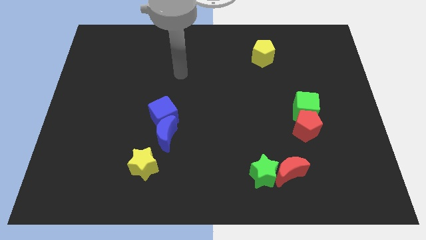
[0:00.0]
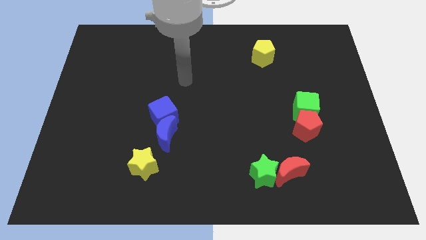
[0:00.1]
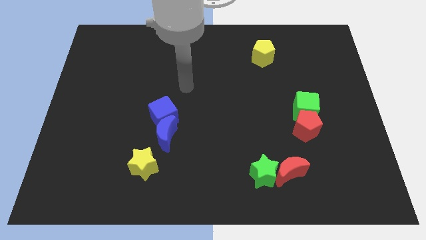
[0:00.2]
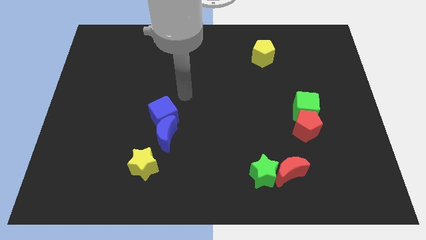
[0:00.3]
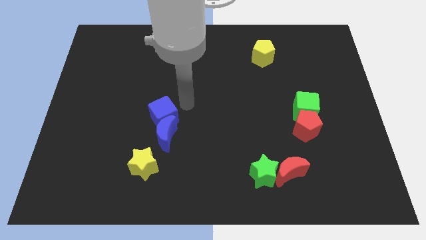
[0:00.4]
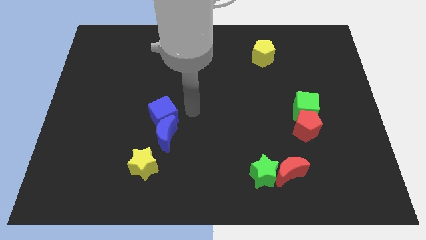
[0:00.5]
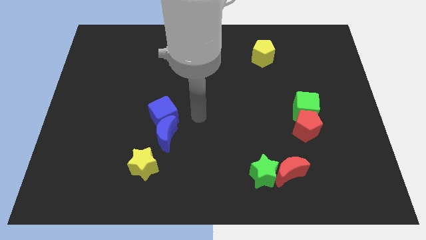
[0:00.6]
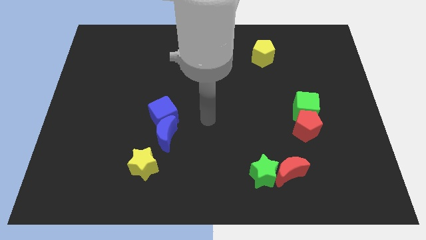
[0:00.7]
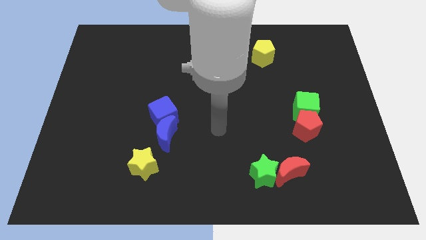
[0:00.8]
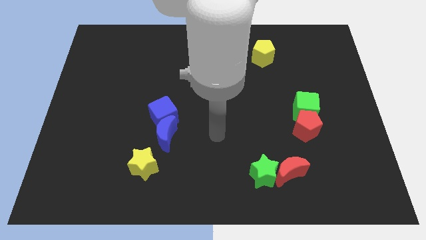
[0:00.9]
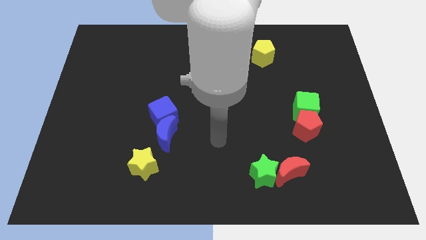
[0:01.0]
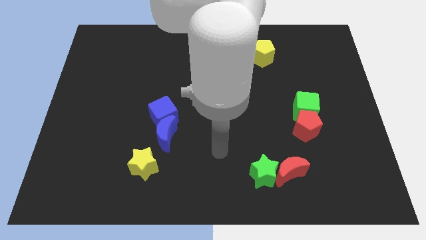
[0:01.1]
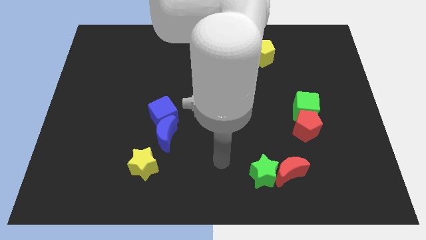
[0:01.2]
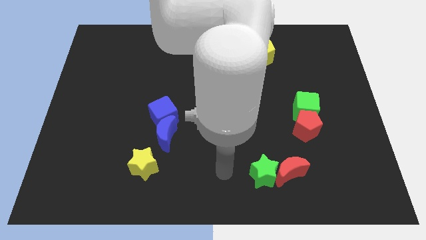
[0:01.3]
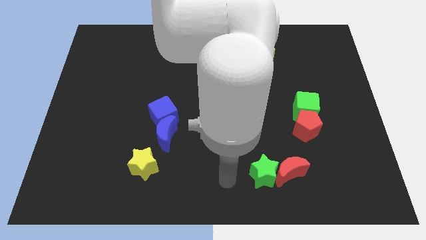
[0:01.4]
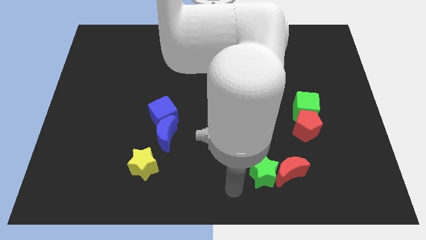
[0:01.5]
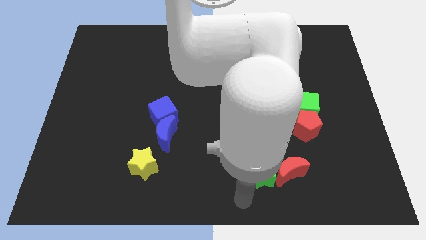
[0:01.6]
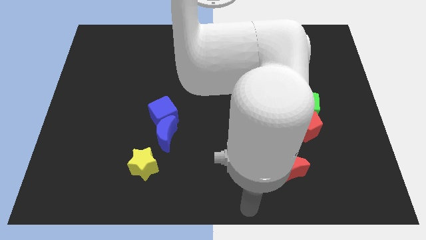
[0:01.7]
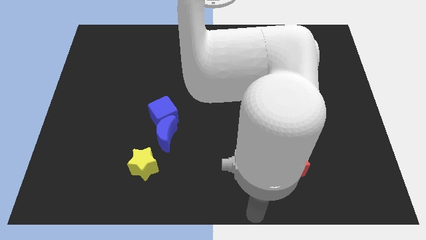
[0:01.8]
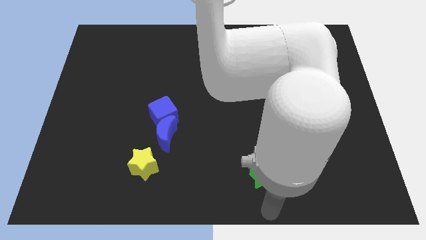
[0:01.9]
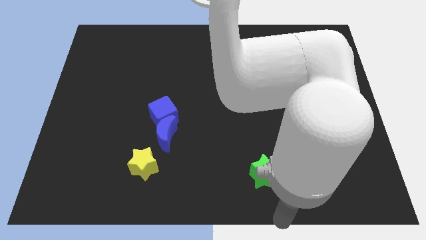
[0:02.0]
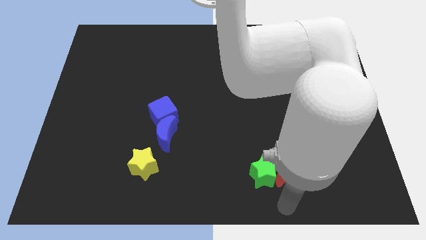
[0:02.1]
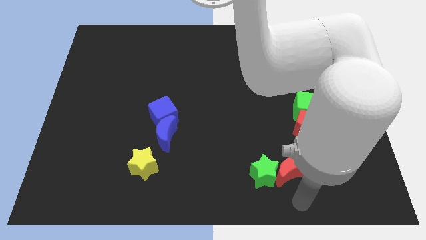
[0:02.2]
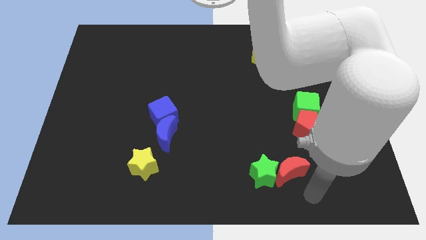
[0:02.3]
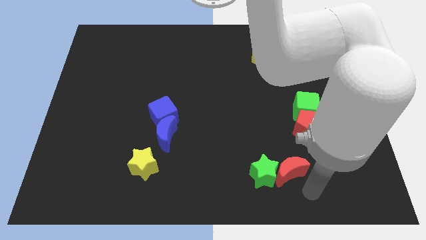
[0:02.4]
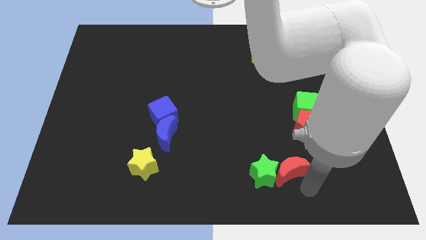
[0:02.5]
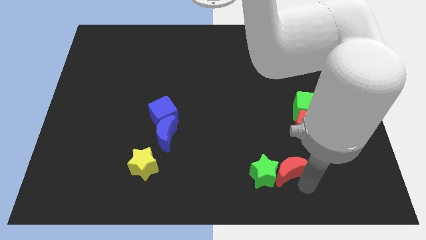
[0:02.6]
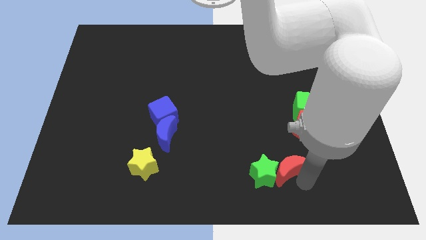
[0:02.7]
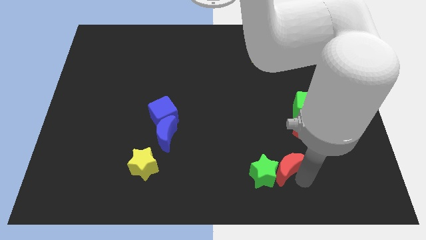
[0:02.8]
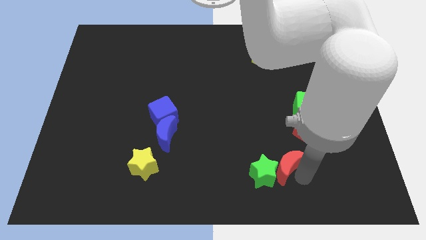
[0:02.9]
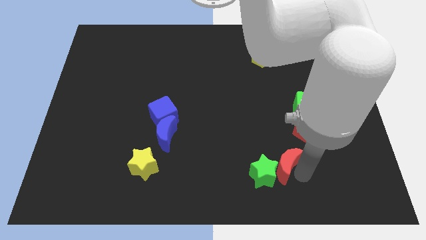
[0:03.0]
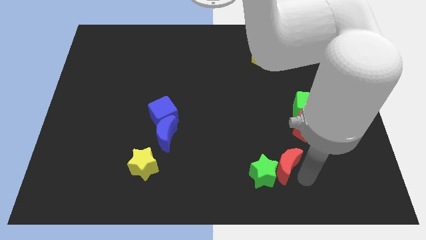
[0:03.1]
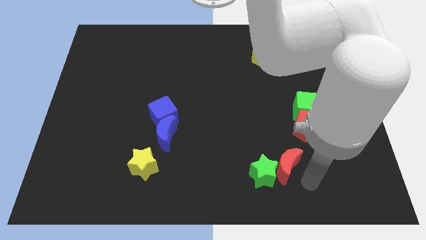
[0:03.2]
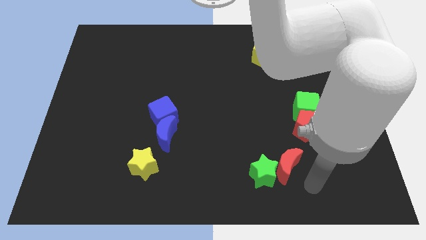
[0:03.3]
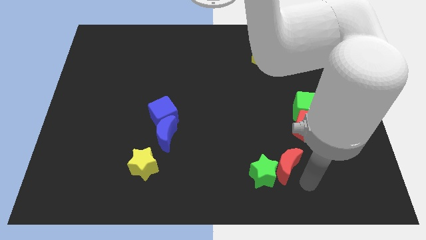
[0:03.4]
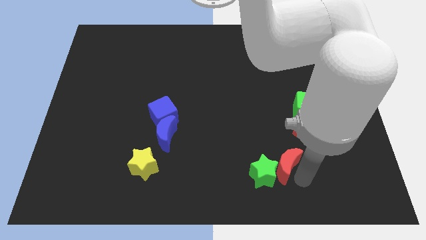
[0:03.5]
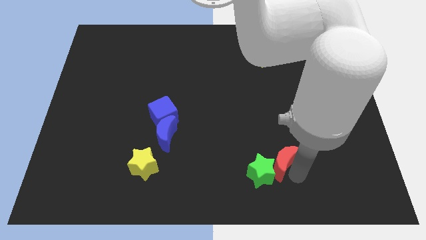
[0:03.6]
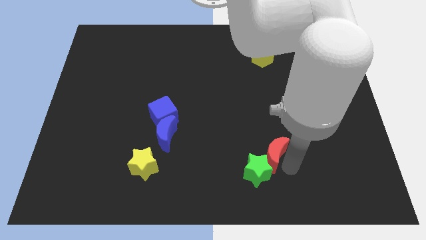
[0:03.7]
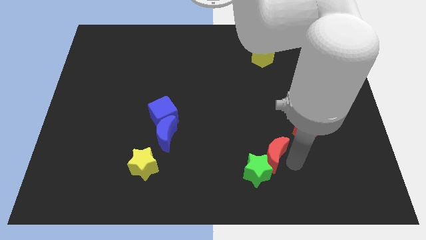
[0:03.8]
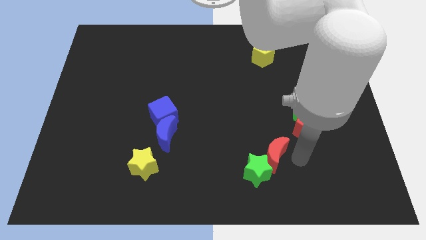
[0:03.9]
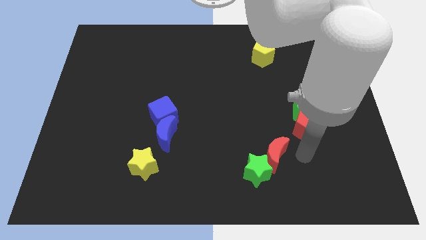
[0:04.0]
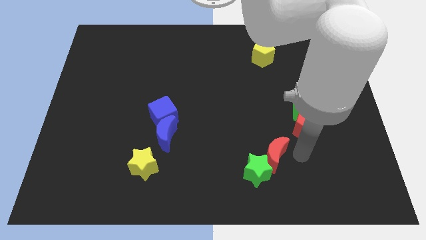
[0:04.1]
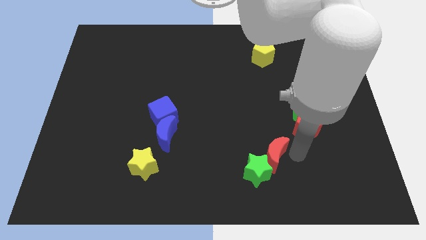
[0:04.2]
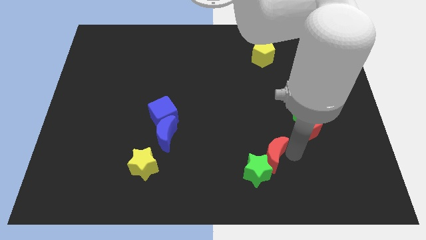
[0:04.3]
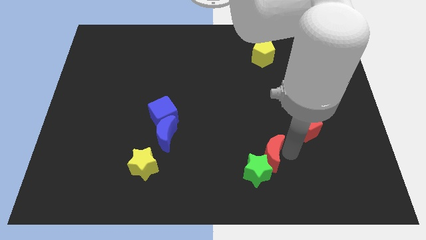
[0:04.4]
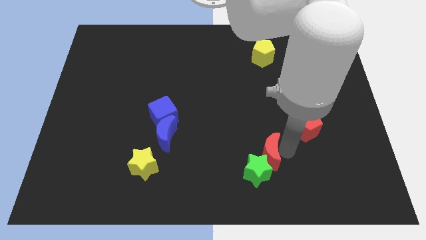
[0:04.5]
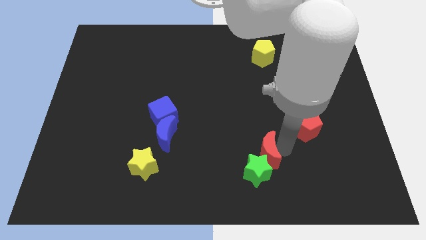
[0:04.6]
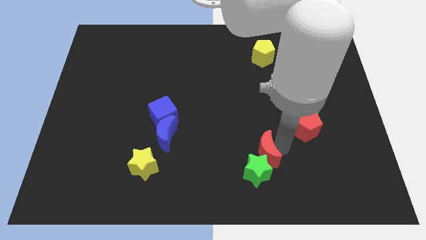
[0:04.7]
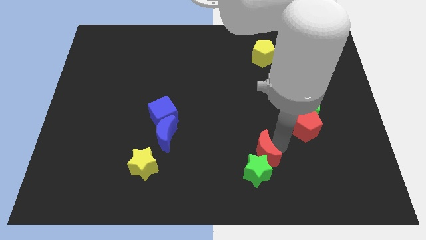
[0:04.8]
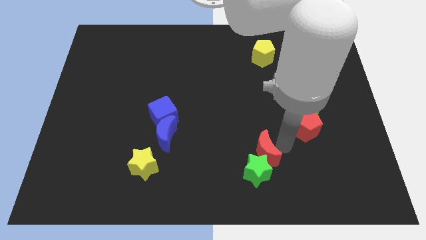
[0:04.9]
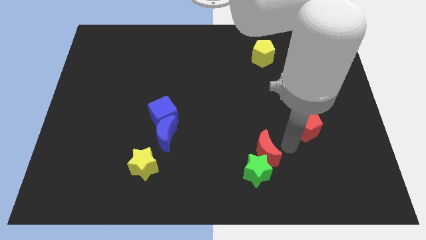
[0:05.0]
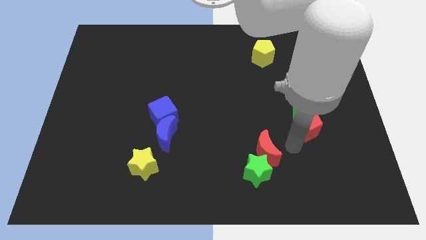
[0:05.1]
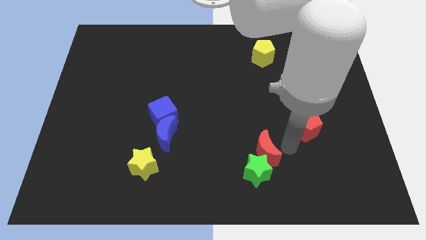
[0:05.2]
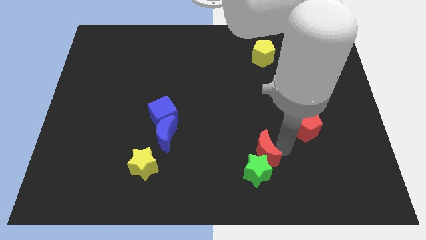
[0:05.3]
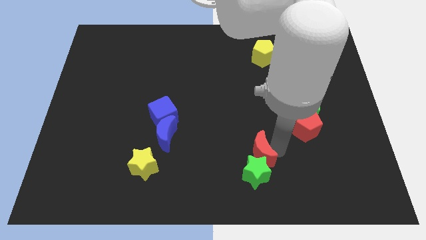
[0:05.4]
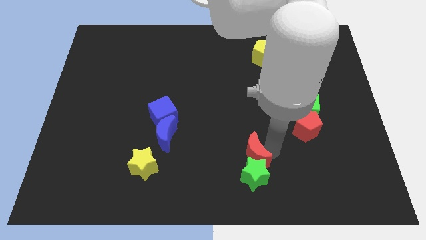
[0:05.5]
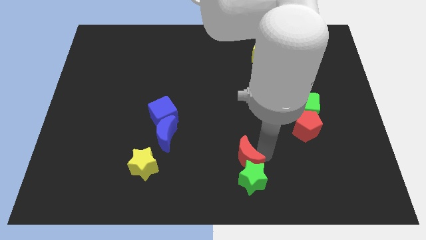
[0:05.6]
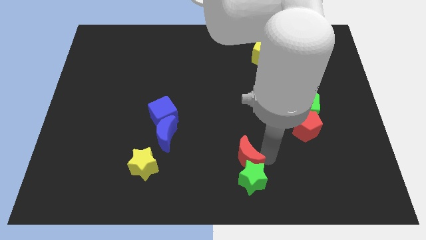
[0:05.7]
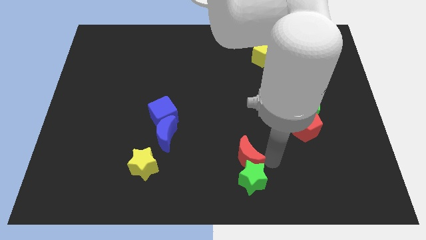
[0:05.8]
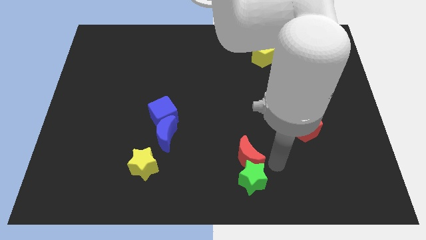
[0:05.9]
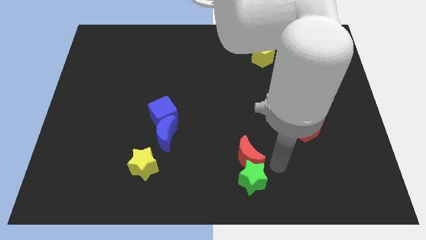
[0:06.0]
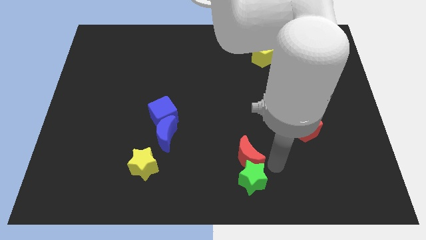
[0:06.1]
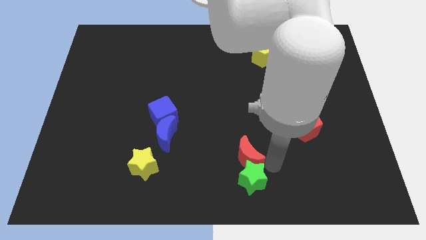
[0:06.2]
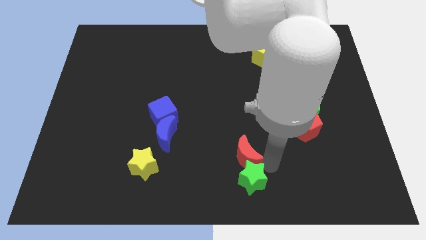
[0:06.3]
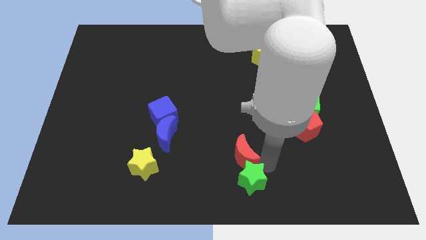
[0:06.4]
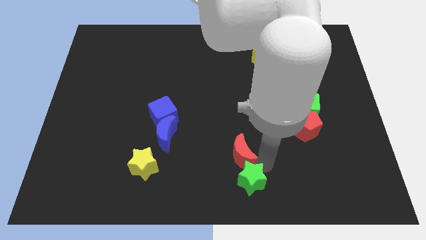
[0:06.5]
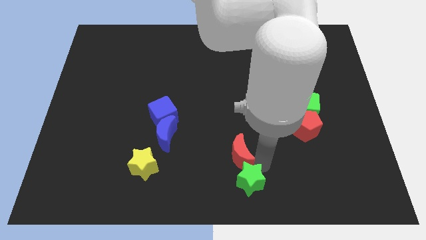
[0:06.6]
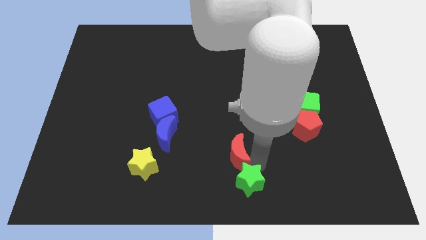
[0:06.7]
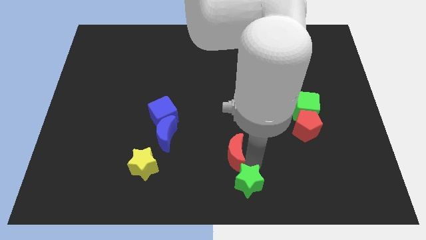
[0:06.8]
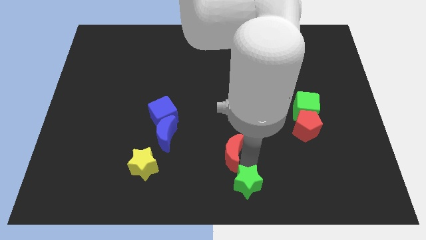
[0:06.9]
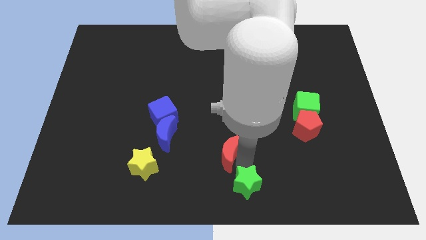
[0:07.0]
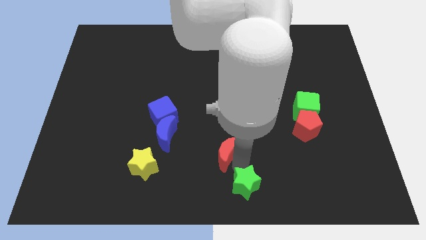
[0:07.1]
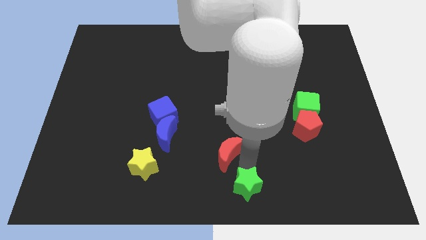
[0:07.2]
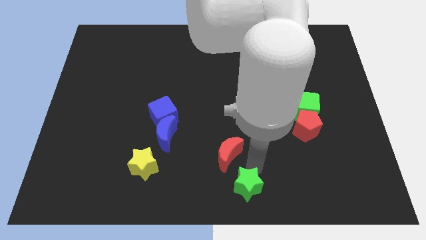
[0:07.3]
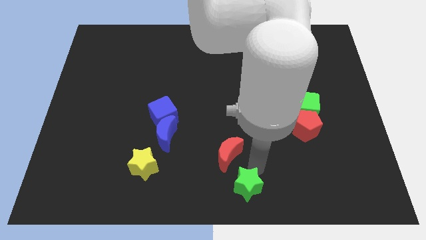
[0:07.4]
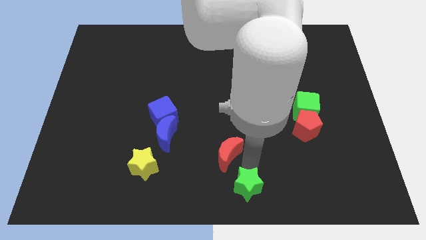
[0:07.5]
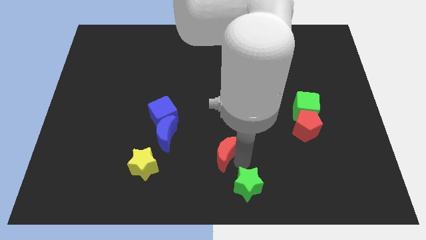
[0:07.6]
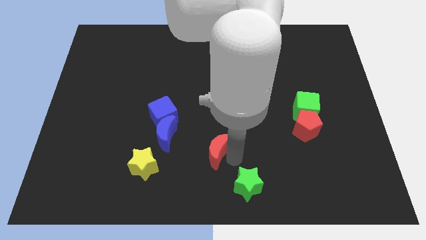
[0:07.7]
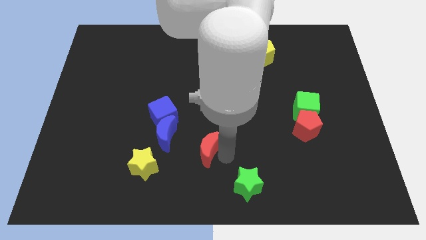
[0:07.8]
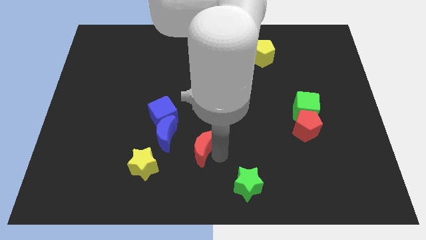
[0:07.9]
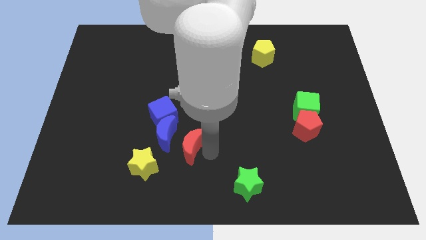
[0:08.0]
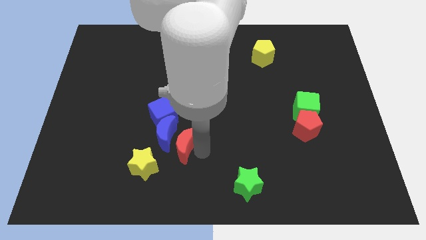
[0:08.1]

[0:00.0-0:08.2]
slide the red moon to the blue moon
